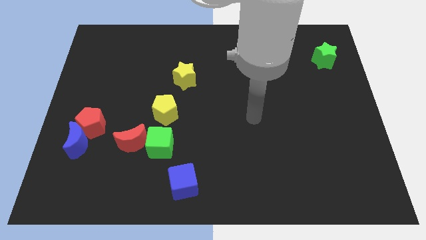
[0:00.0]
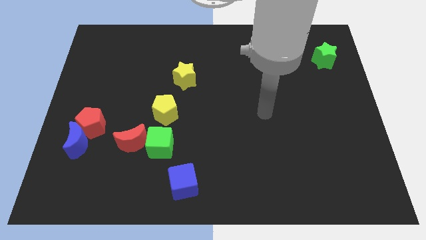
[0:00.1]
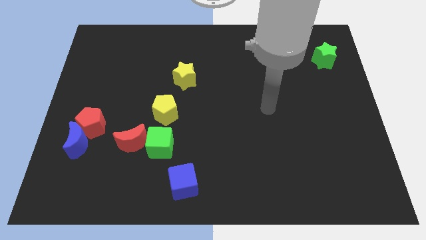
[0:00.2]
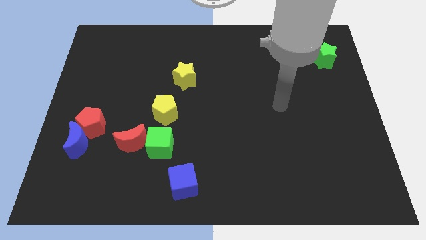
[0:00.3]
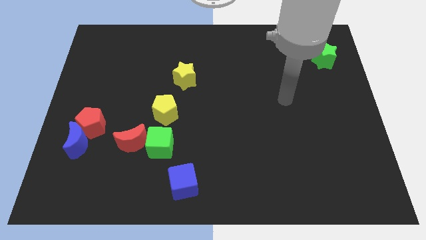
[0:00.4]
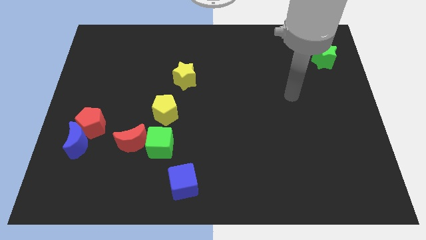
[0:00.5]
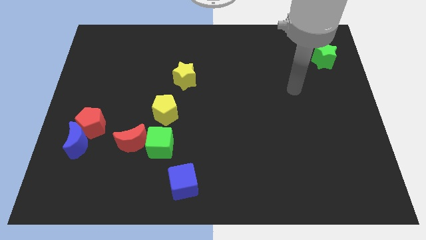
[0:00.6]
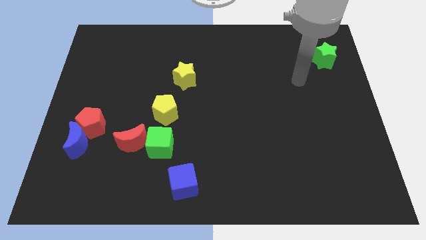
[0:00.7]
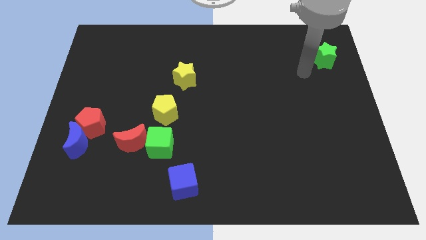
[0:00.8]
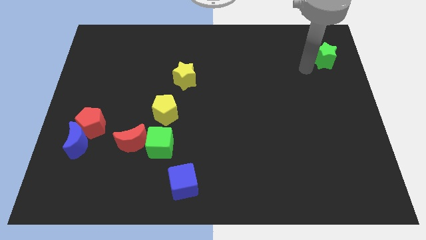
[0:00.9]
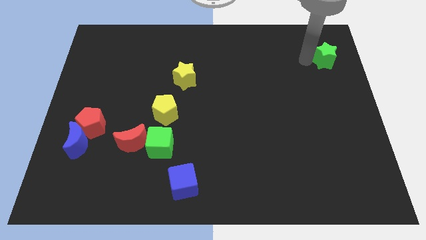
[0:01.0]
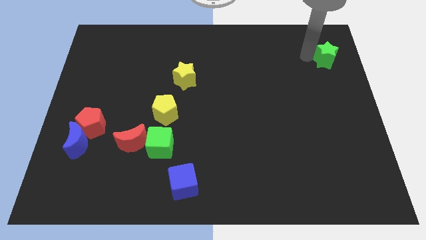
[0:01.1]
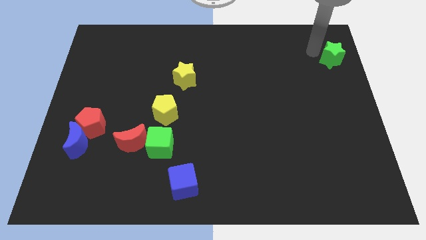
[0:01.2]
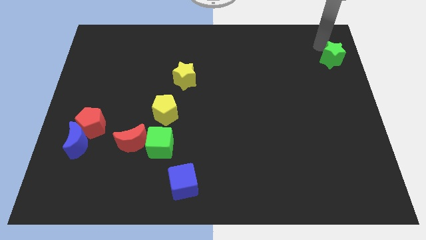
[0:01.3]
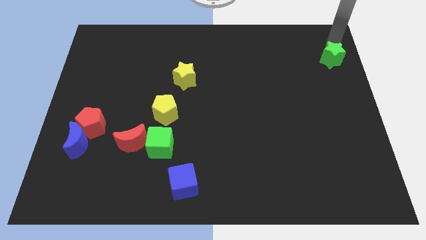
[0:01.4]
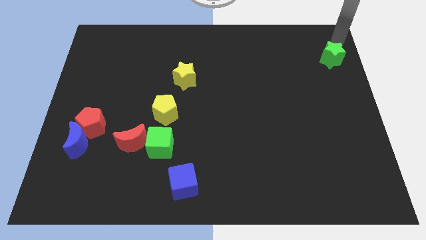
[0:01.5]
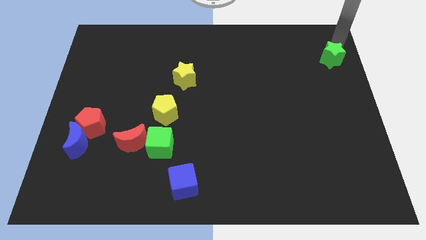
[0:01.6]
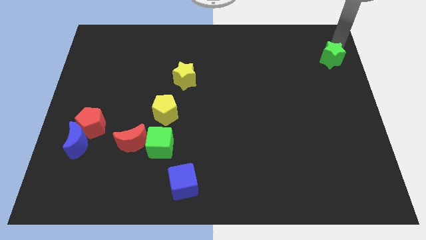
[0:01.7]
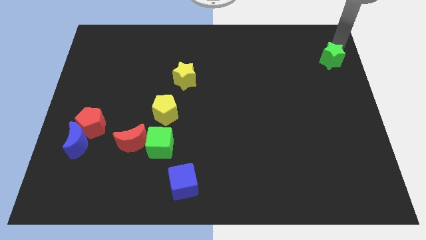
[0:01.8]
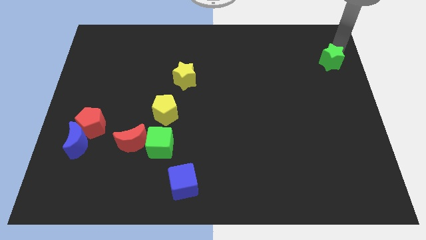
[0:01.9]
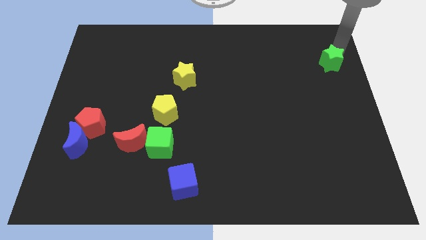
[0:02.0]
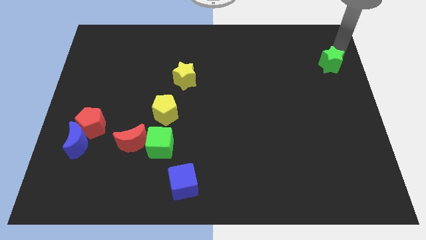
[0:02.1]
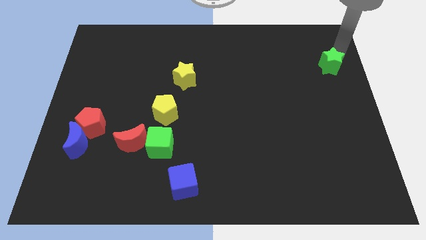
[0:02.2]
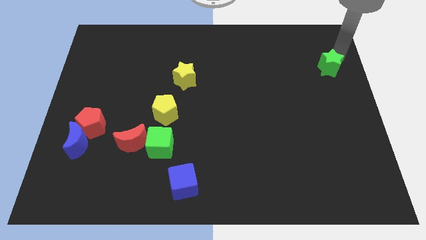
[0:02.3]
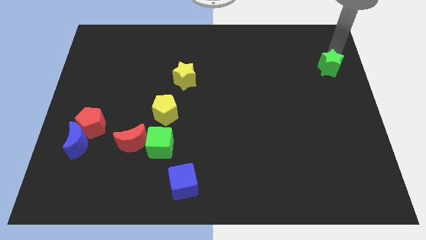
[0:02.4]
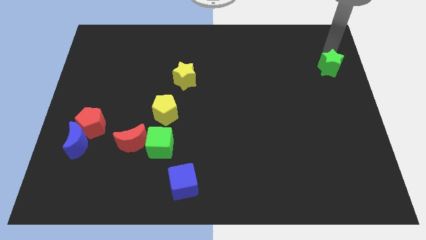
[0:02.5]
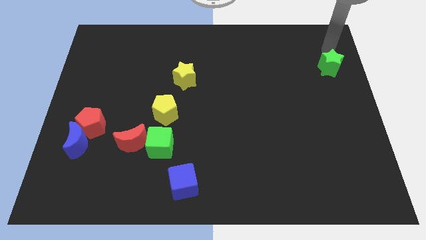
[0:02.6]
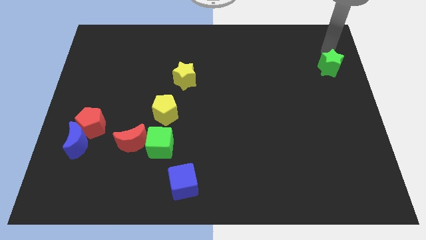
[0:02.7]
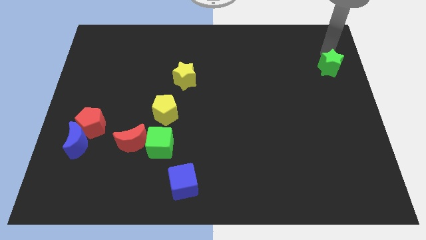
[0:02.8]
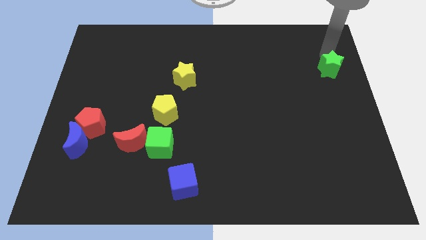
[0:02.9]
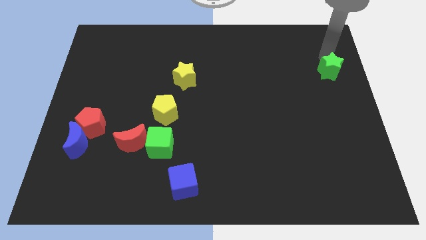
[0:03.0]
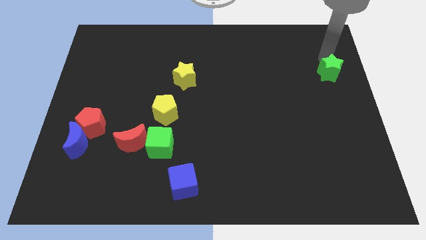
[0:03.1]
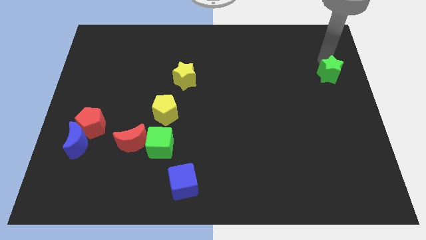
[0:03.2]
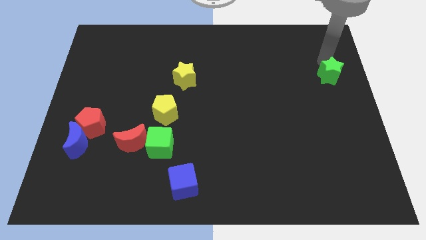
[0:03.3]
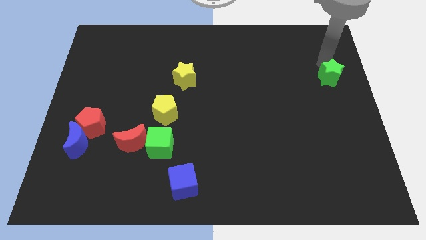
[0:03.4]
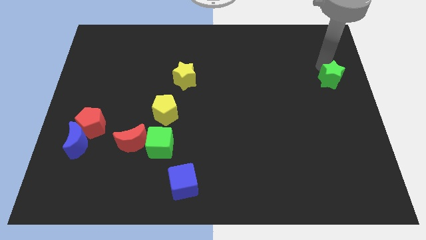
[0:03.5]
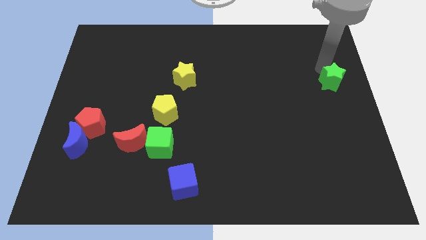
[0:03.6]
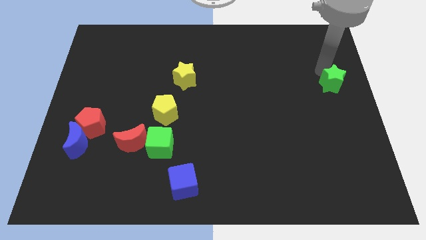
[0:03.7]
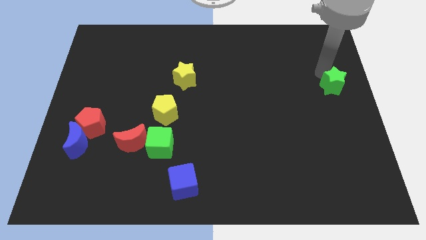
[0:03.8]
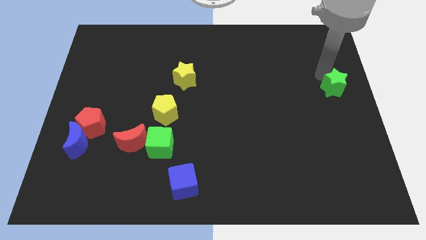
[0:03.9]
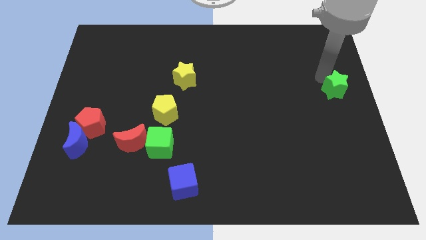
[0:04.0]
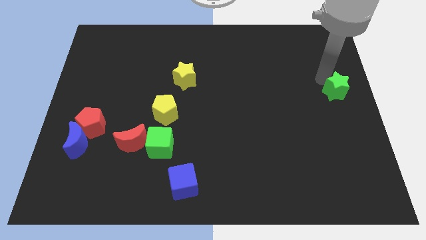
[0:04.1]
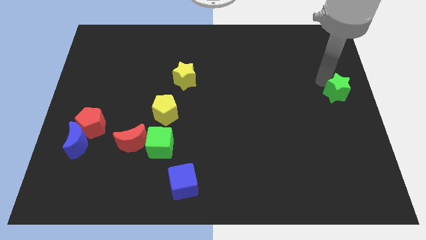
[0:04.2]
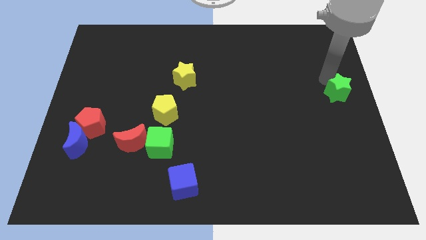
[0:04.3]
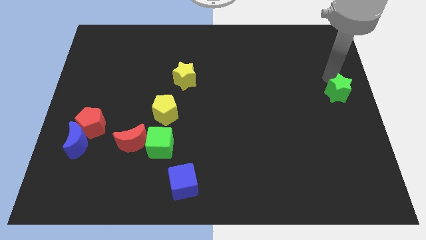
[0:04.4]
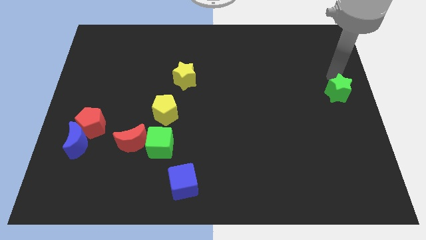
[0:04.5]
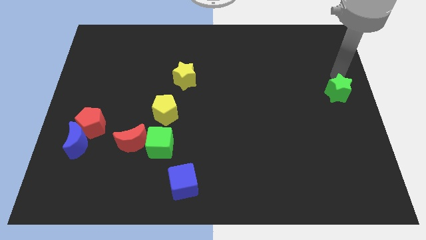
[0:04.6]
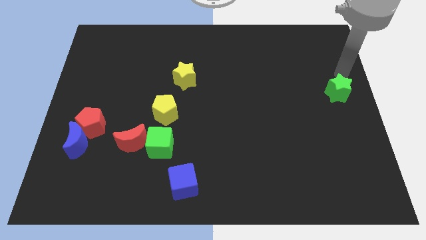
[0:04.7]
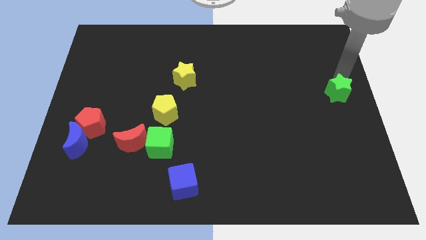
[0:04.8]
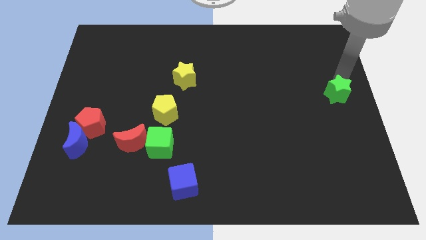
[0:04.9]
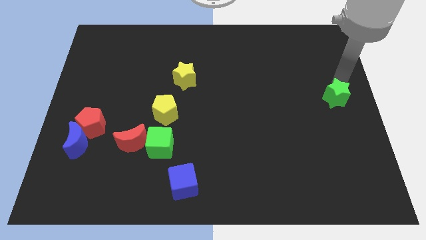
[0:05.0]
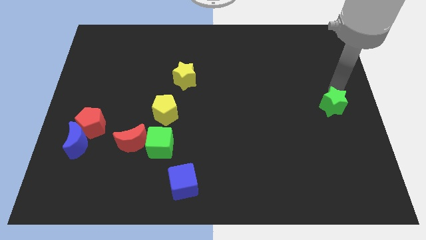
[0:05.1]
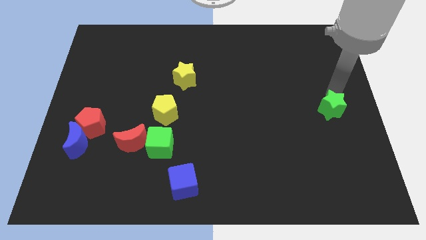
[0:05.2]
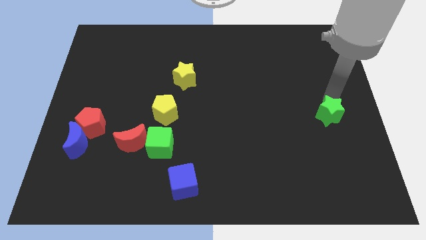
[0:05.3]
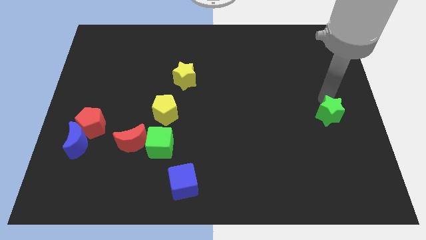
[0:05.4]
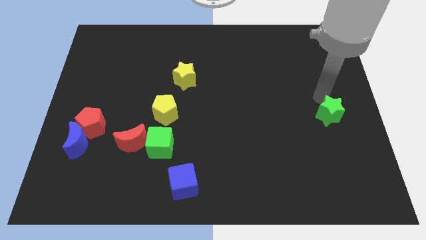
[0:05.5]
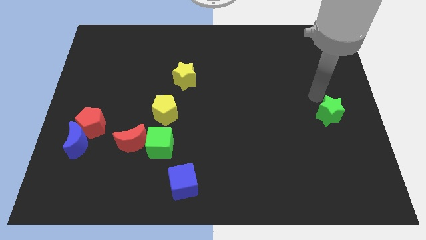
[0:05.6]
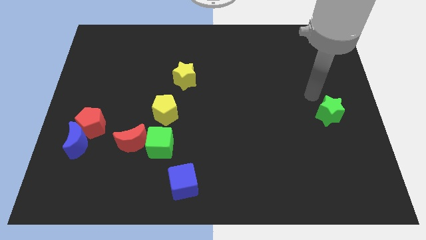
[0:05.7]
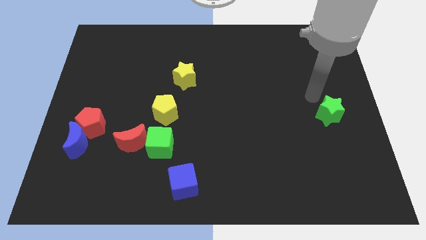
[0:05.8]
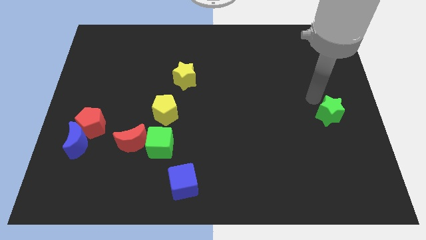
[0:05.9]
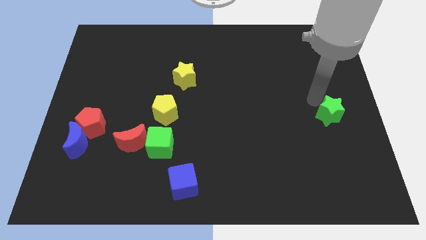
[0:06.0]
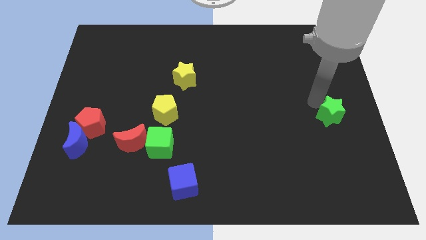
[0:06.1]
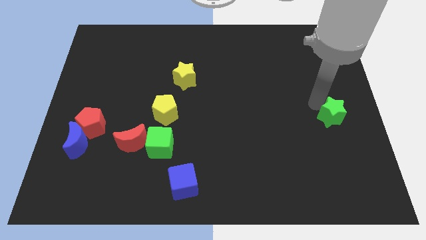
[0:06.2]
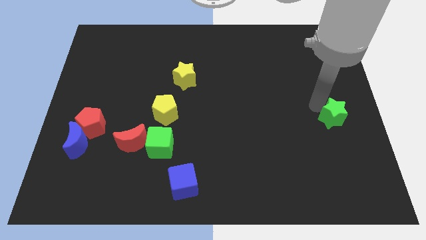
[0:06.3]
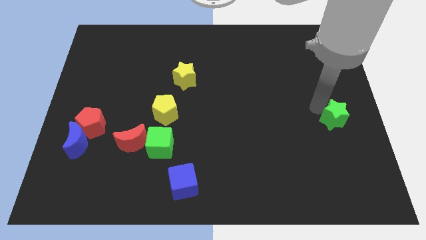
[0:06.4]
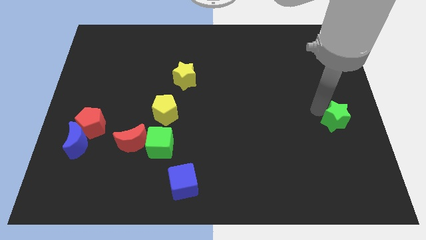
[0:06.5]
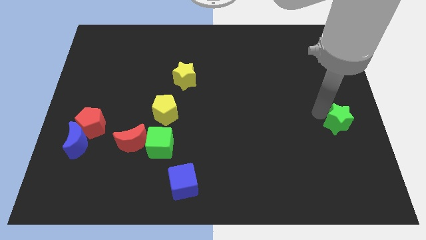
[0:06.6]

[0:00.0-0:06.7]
move the green star down

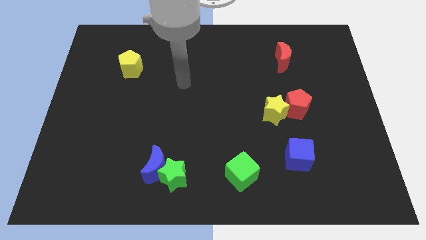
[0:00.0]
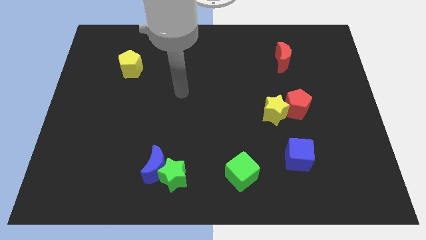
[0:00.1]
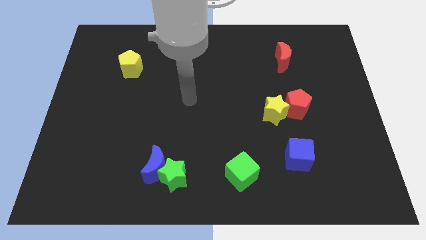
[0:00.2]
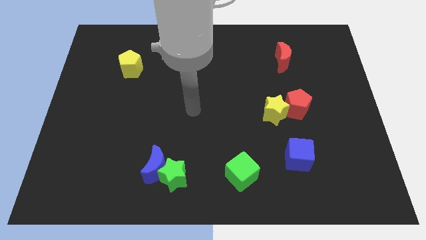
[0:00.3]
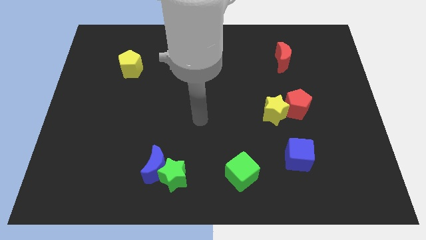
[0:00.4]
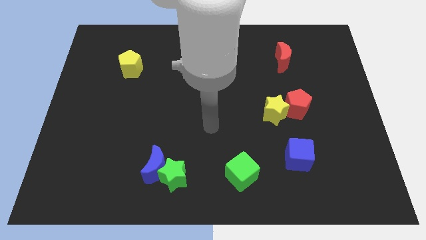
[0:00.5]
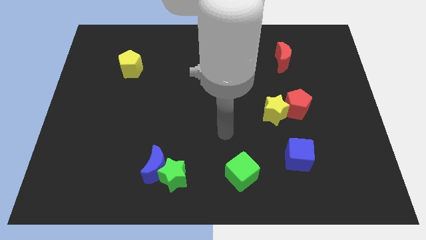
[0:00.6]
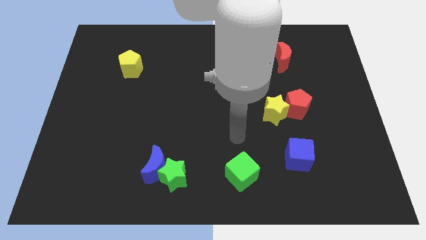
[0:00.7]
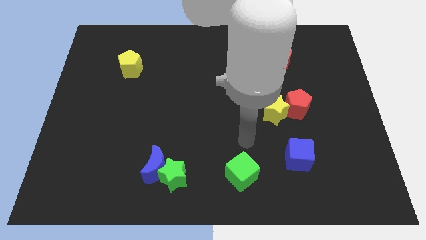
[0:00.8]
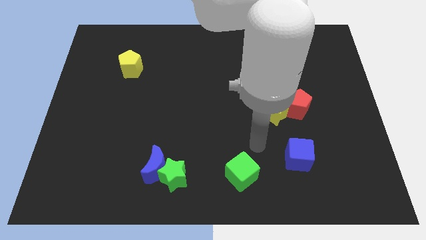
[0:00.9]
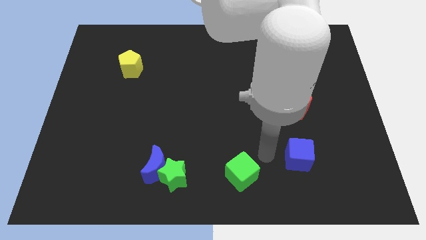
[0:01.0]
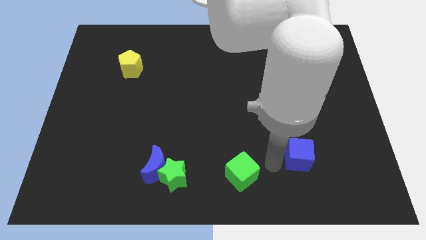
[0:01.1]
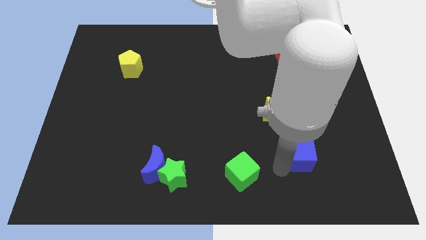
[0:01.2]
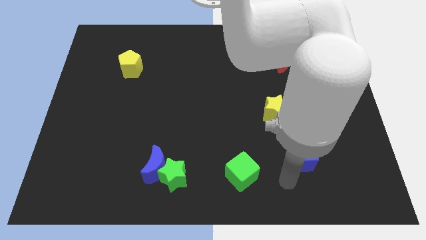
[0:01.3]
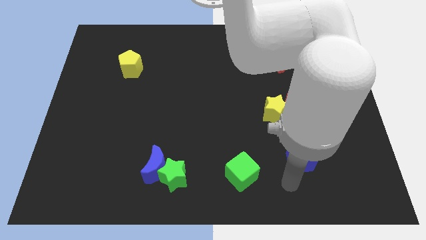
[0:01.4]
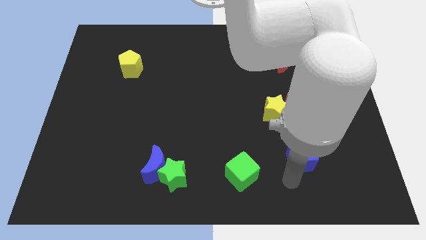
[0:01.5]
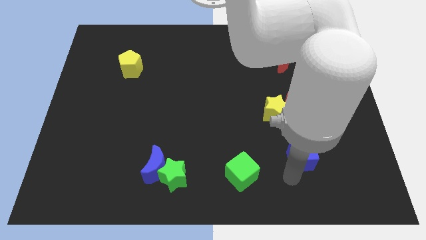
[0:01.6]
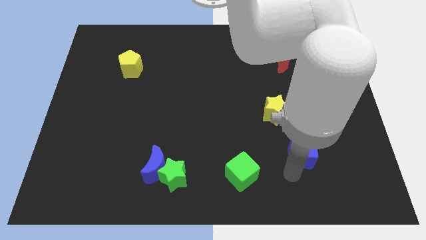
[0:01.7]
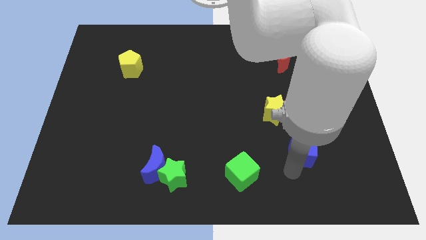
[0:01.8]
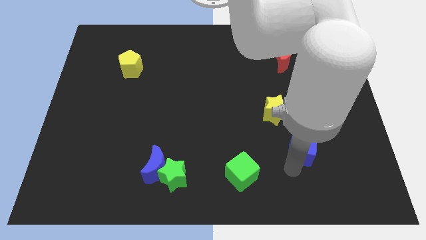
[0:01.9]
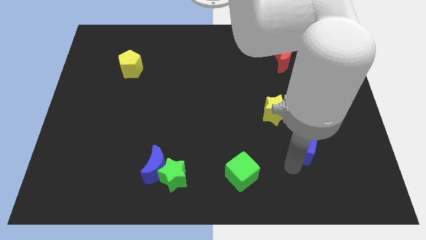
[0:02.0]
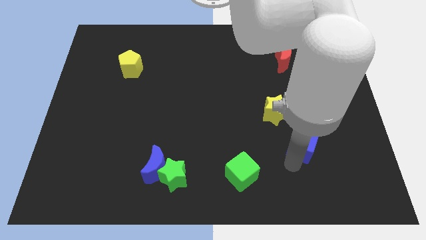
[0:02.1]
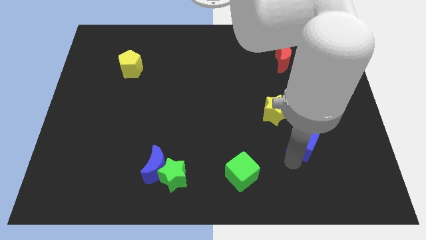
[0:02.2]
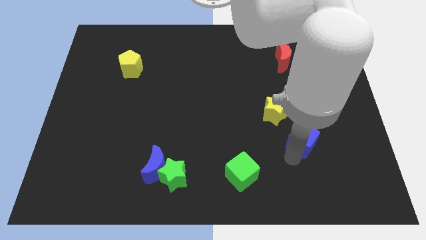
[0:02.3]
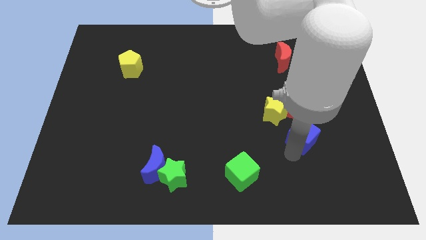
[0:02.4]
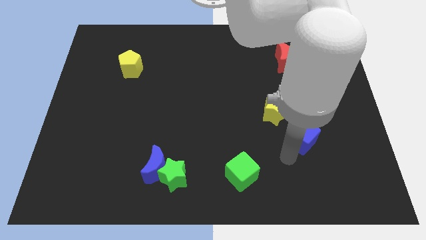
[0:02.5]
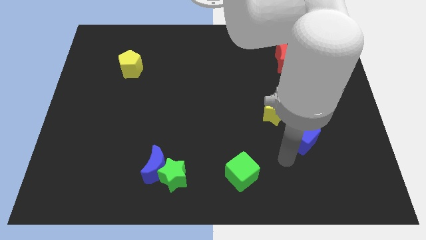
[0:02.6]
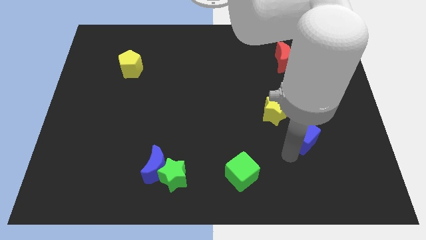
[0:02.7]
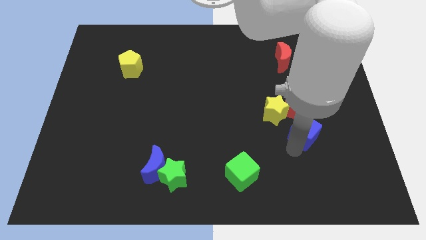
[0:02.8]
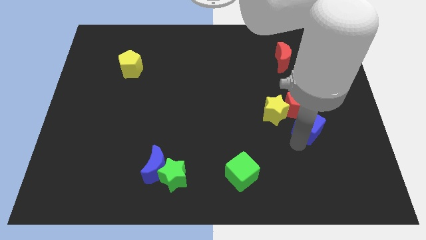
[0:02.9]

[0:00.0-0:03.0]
push the blue cube upwards somewhat
